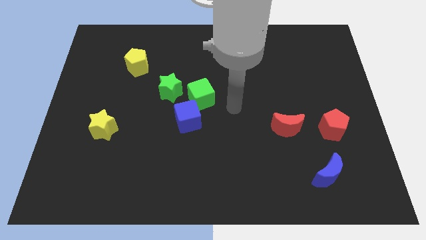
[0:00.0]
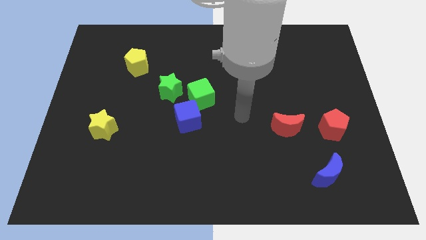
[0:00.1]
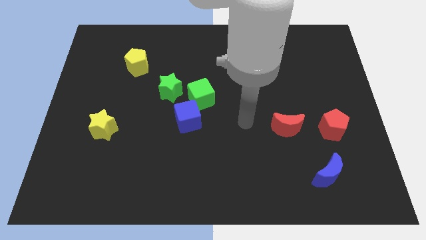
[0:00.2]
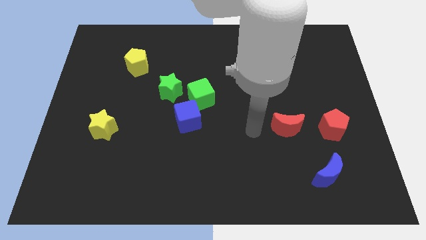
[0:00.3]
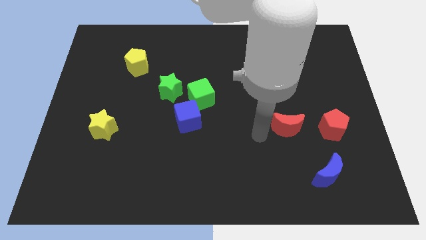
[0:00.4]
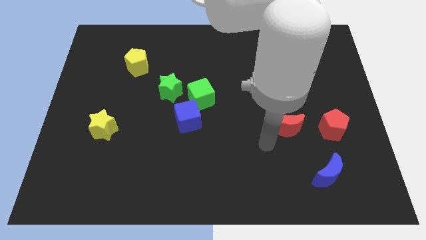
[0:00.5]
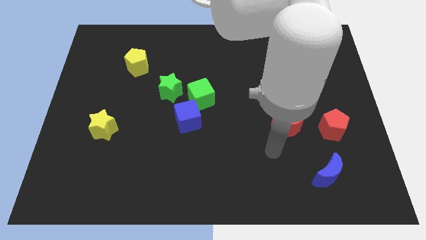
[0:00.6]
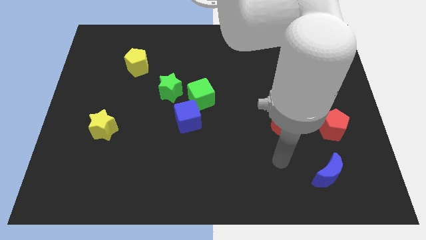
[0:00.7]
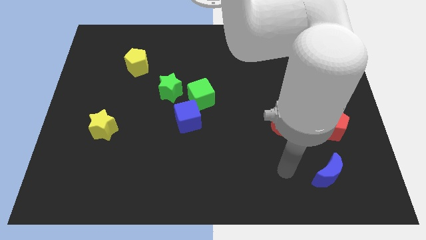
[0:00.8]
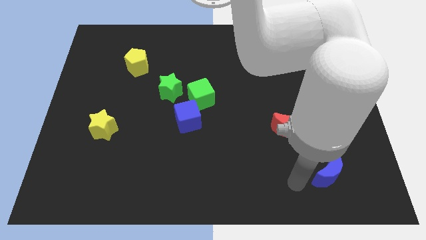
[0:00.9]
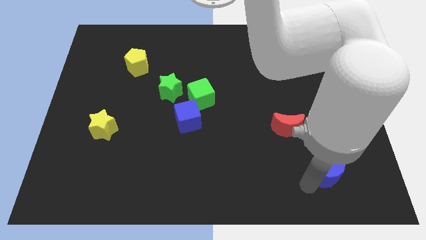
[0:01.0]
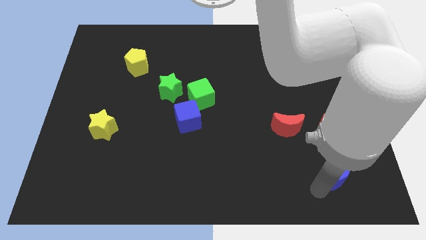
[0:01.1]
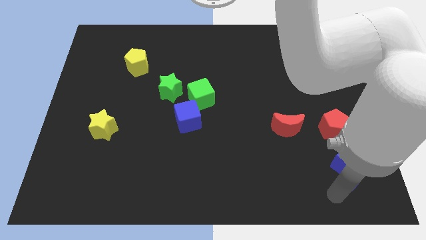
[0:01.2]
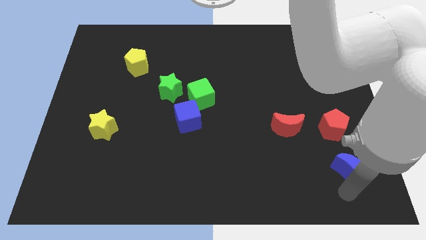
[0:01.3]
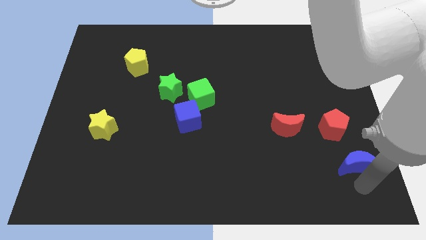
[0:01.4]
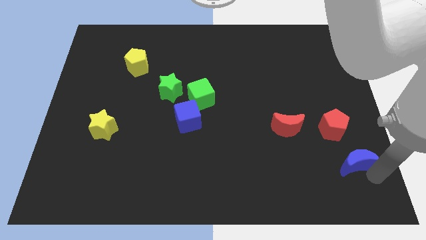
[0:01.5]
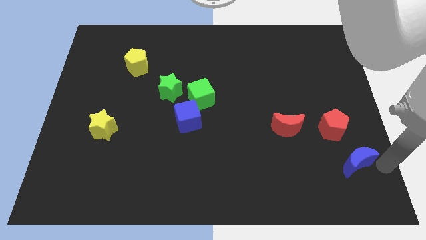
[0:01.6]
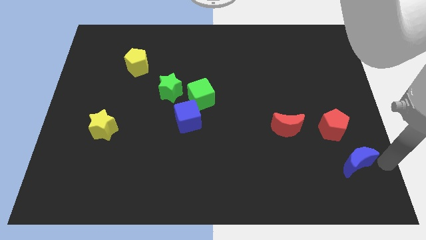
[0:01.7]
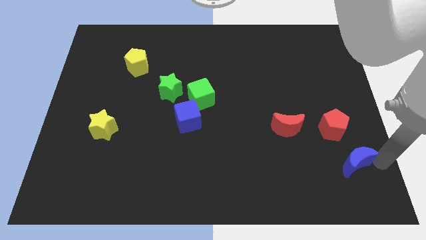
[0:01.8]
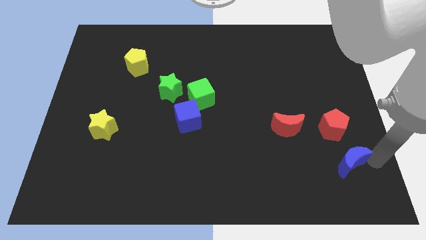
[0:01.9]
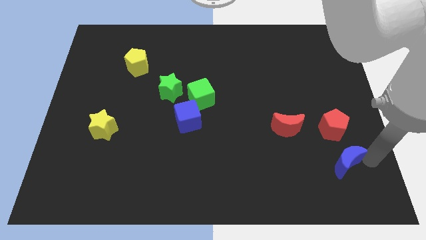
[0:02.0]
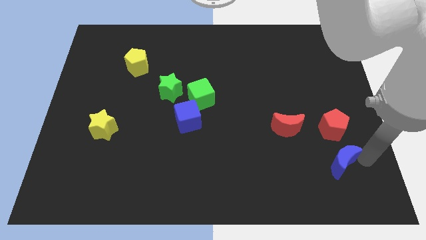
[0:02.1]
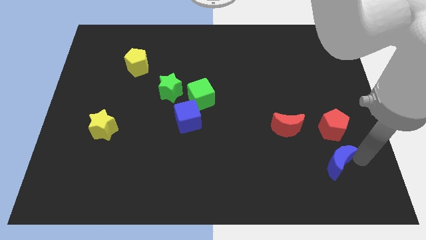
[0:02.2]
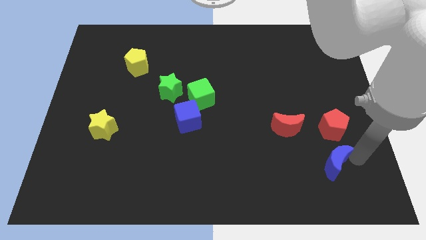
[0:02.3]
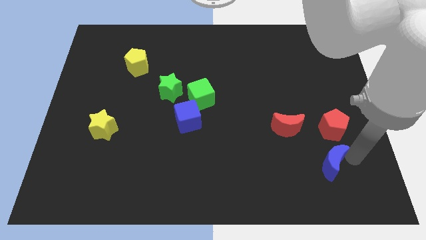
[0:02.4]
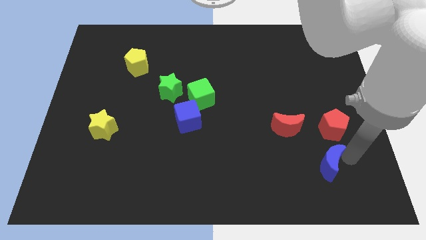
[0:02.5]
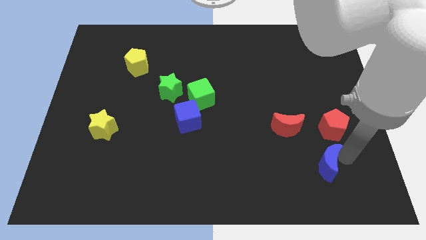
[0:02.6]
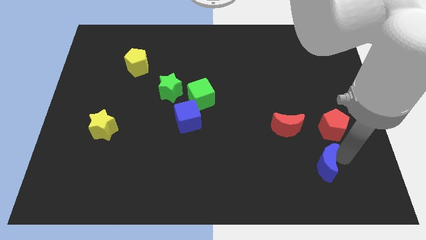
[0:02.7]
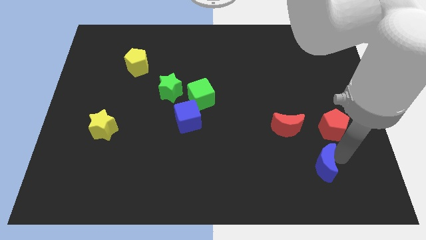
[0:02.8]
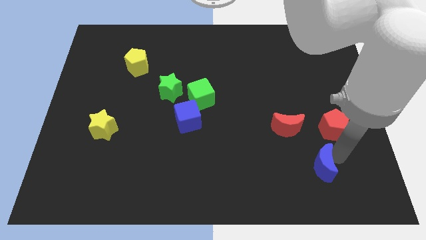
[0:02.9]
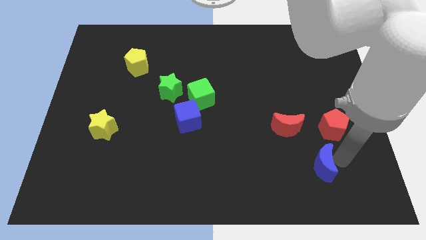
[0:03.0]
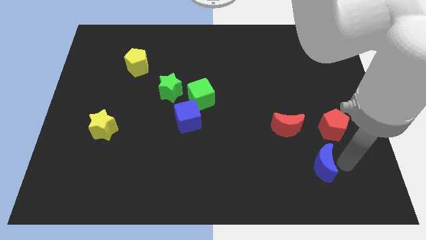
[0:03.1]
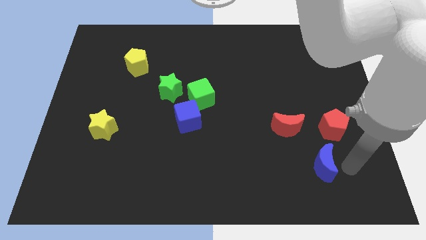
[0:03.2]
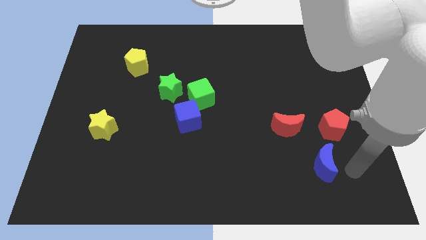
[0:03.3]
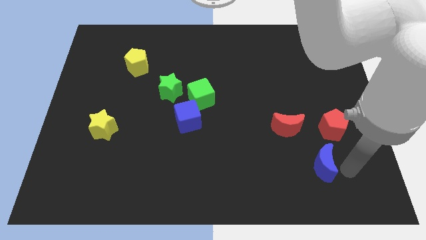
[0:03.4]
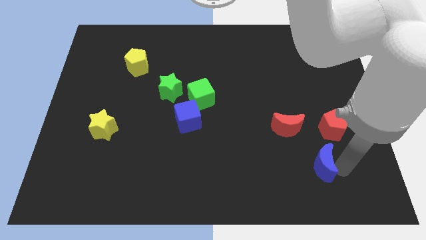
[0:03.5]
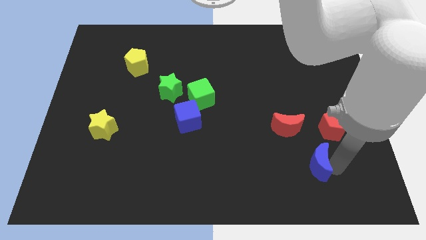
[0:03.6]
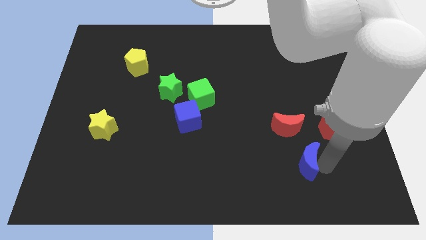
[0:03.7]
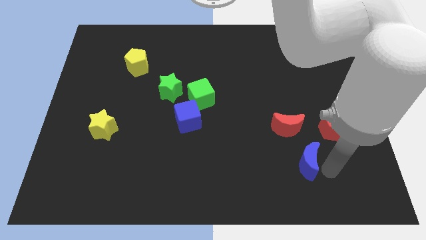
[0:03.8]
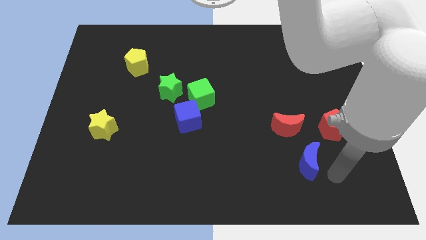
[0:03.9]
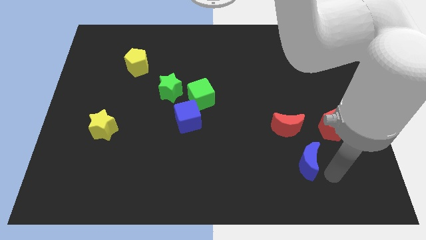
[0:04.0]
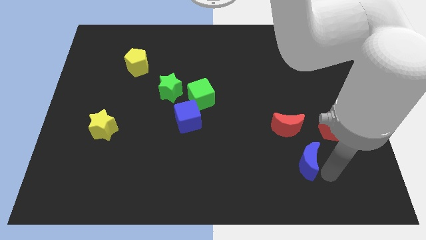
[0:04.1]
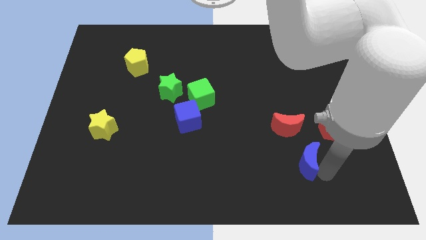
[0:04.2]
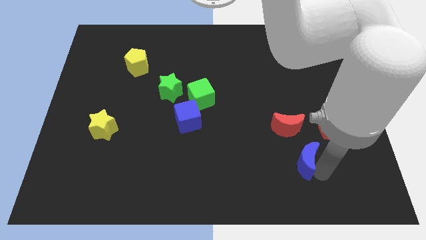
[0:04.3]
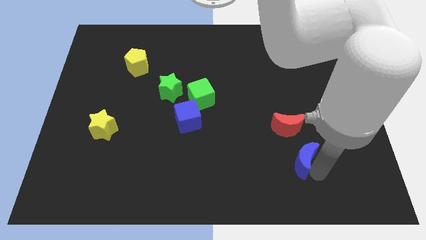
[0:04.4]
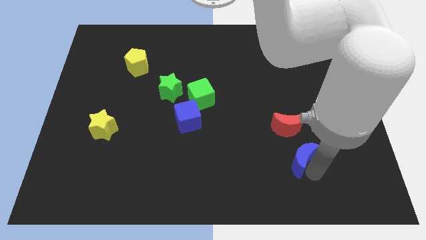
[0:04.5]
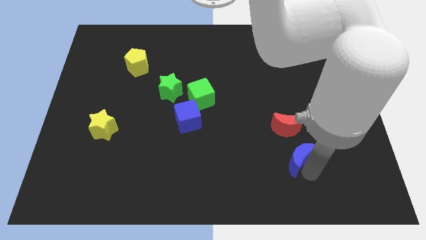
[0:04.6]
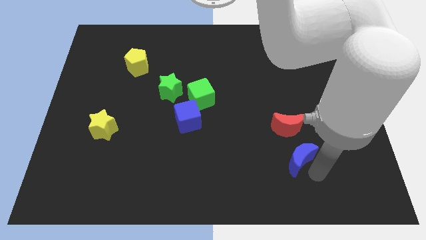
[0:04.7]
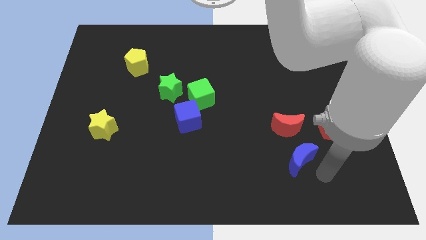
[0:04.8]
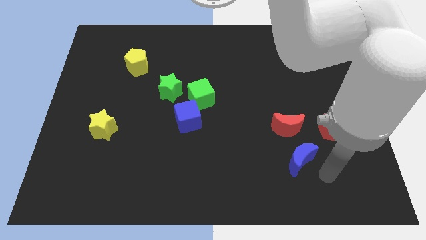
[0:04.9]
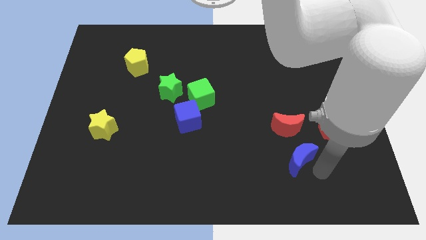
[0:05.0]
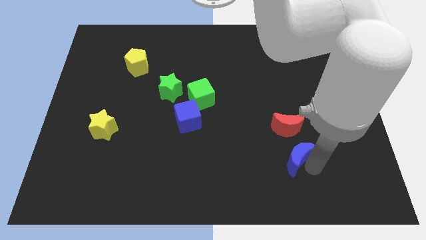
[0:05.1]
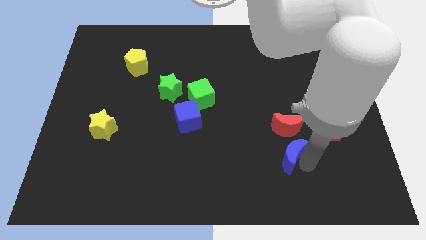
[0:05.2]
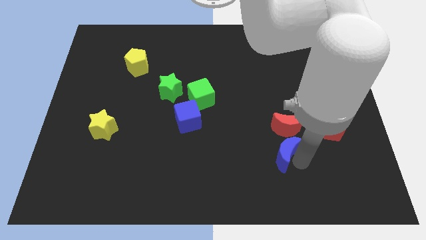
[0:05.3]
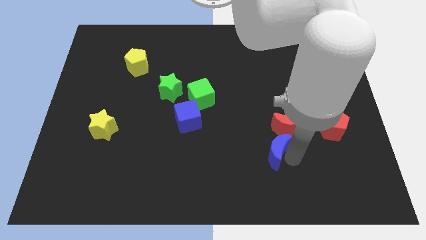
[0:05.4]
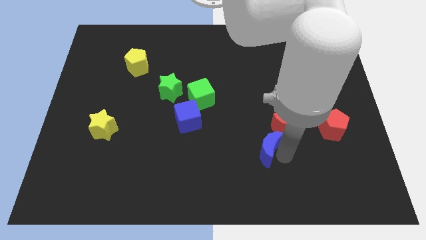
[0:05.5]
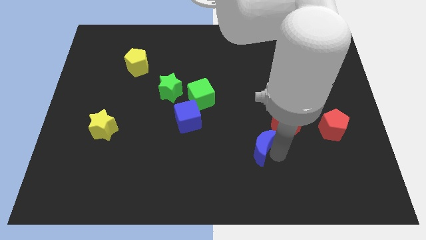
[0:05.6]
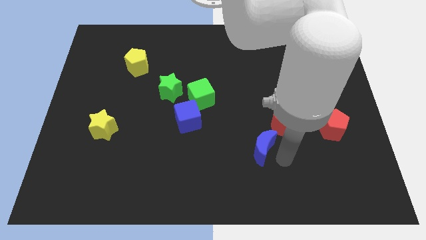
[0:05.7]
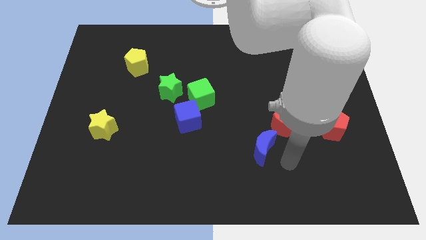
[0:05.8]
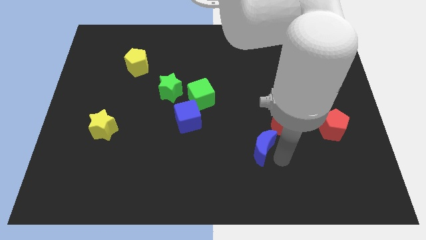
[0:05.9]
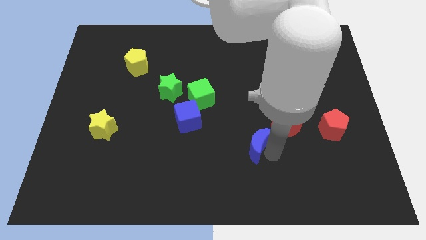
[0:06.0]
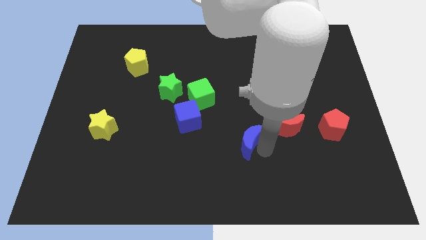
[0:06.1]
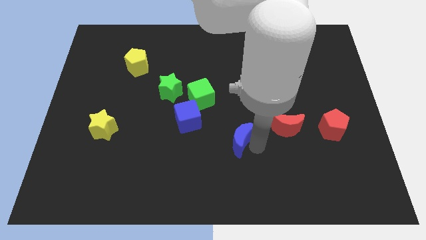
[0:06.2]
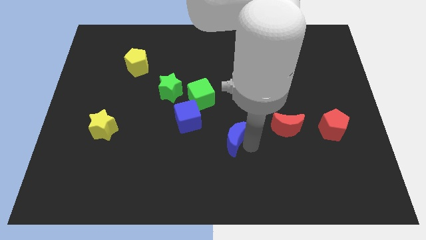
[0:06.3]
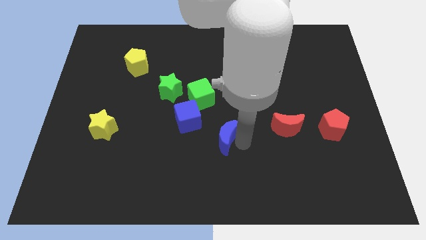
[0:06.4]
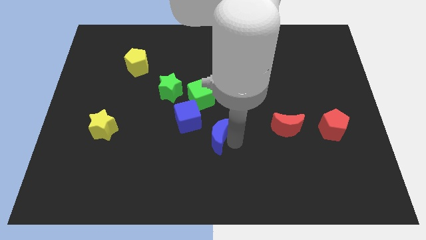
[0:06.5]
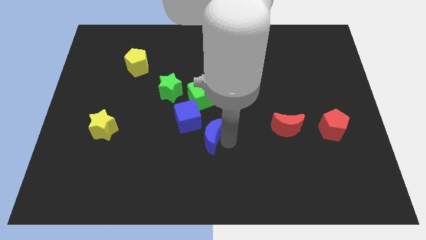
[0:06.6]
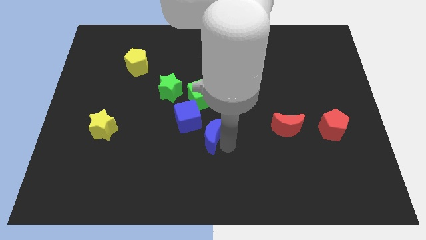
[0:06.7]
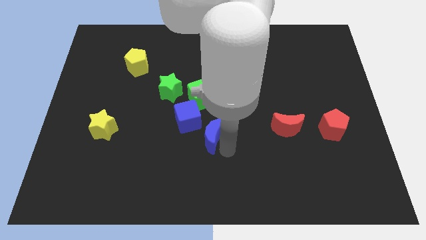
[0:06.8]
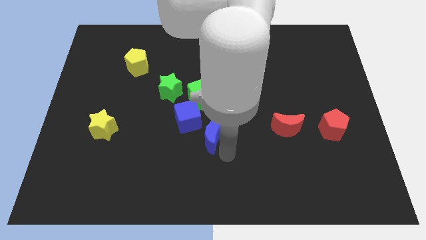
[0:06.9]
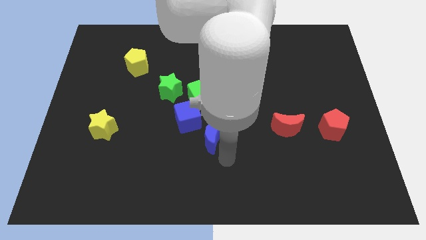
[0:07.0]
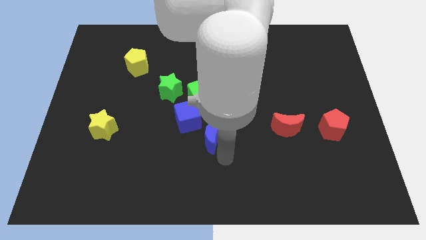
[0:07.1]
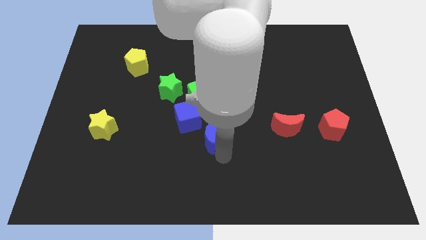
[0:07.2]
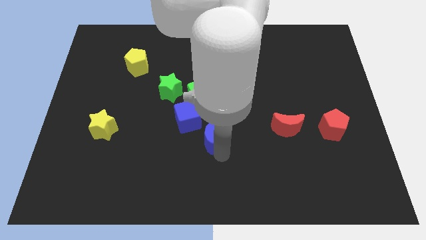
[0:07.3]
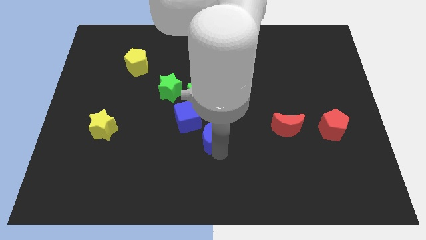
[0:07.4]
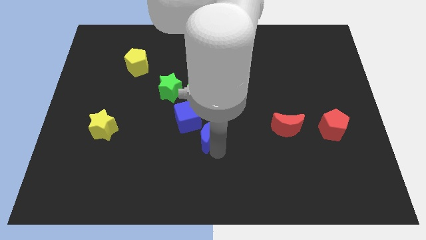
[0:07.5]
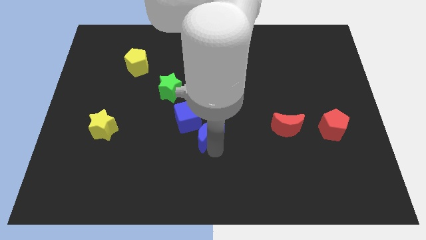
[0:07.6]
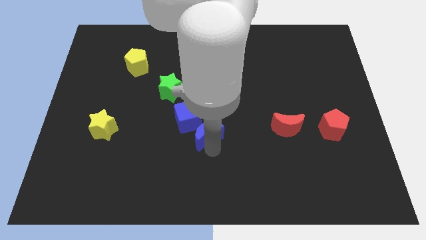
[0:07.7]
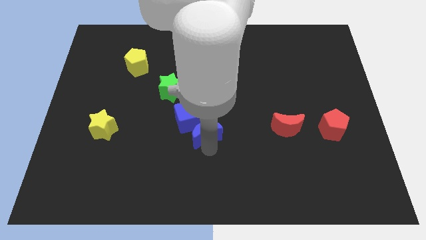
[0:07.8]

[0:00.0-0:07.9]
move the blue moon to the blue cube
